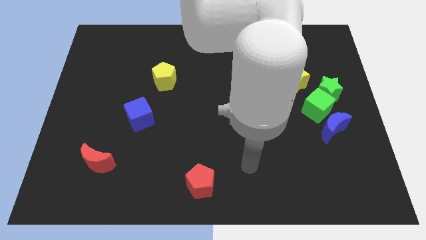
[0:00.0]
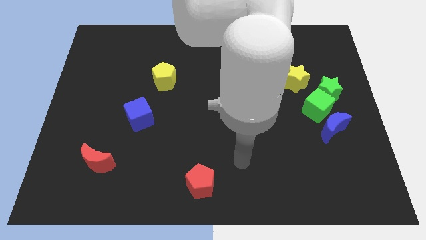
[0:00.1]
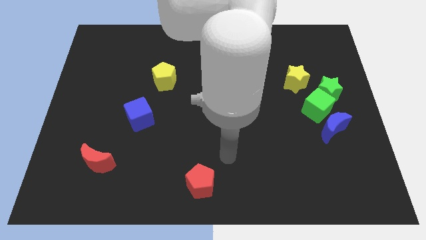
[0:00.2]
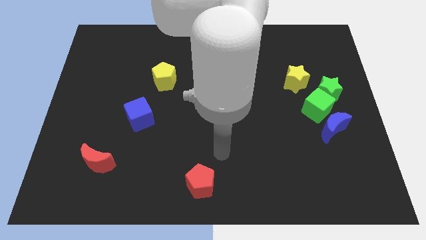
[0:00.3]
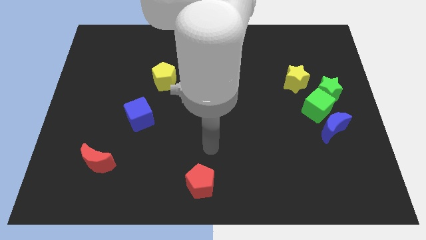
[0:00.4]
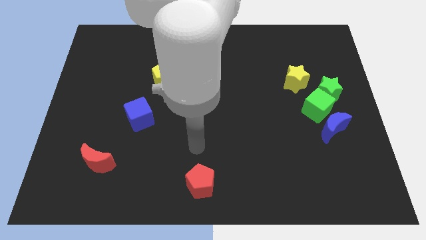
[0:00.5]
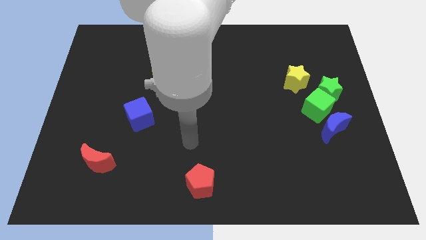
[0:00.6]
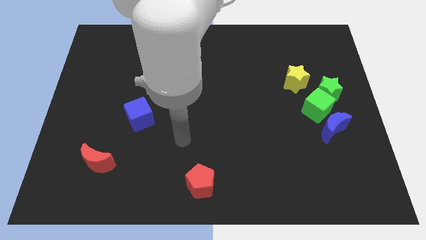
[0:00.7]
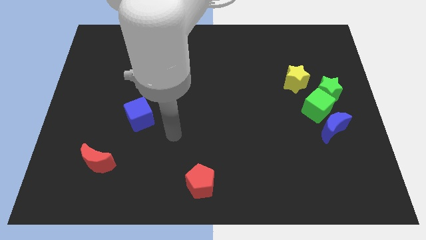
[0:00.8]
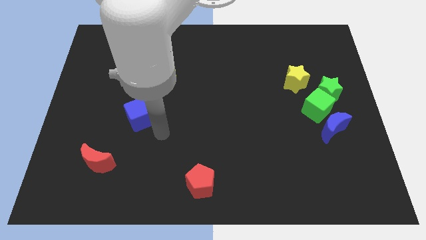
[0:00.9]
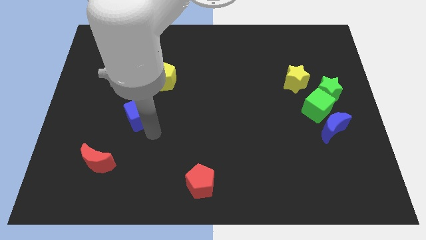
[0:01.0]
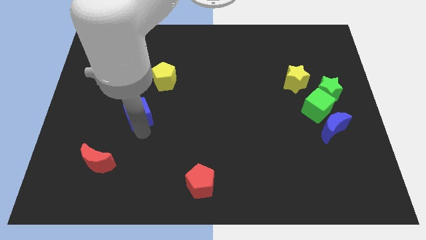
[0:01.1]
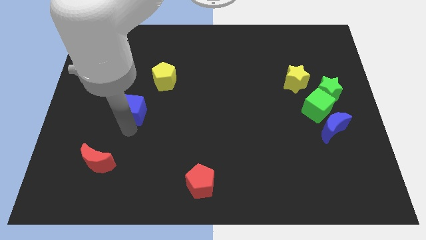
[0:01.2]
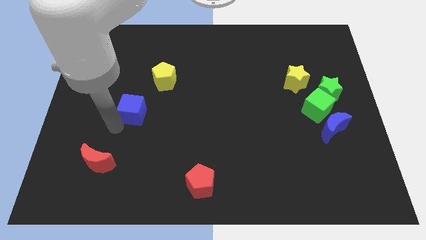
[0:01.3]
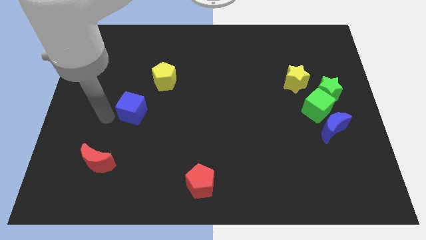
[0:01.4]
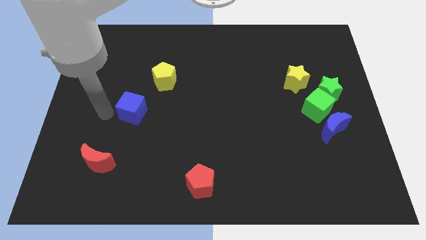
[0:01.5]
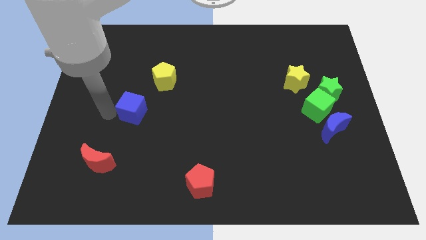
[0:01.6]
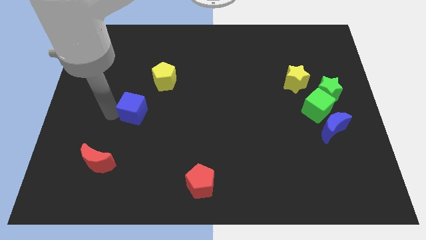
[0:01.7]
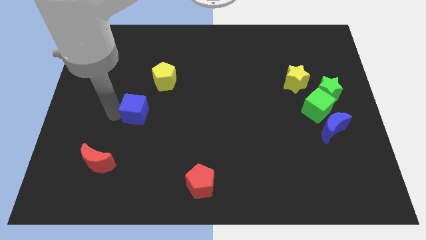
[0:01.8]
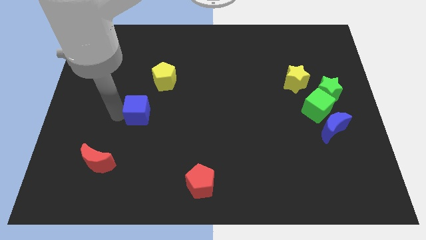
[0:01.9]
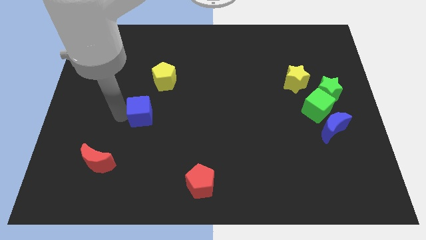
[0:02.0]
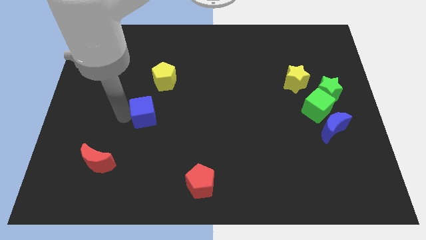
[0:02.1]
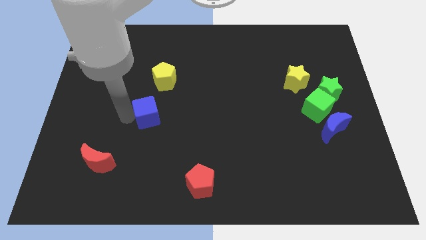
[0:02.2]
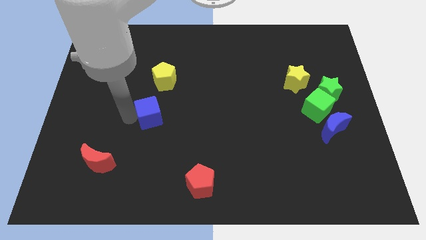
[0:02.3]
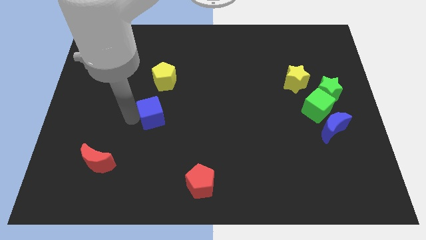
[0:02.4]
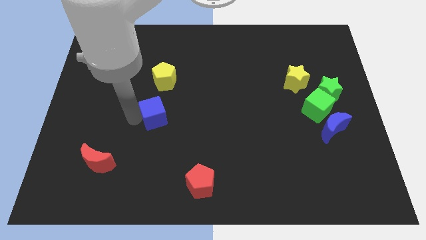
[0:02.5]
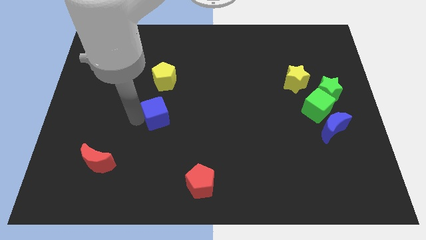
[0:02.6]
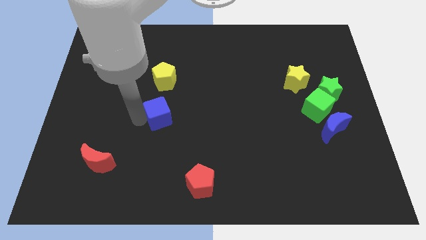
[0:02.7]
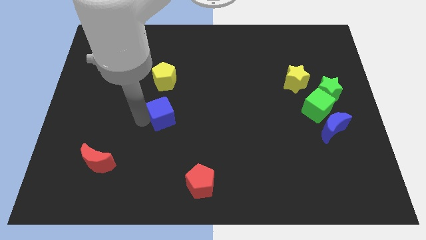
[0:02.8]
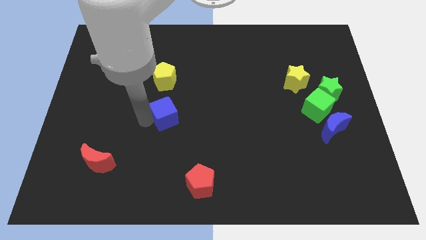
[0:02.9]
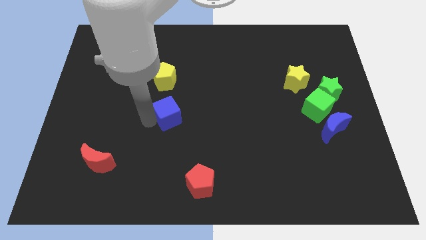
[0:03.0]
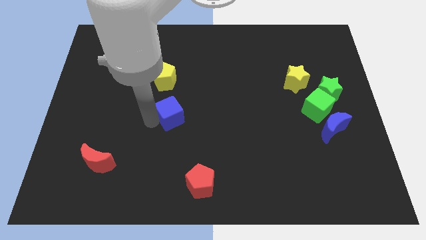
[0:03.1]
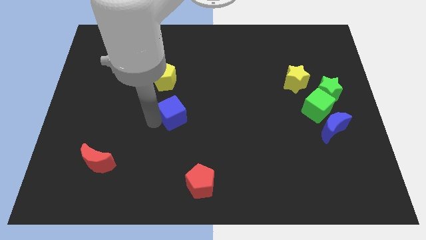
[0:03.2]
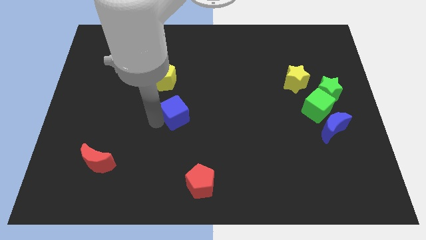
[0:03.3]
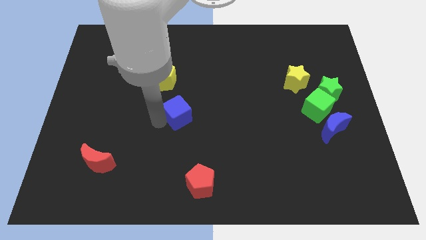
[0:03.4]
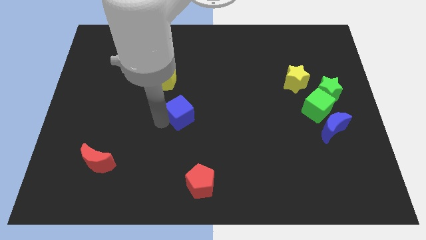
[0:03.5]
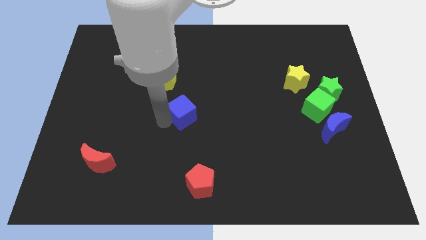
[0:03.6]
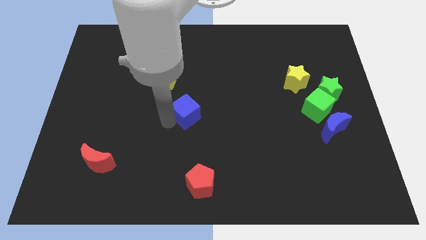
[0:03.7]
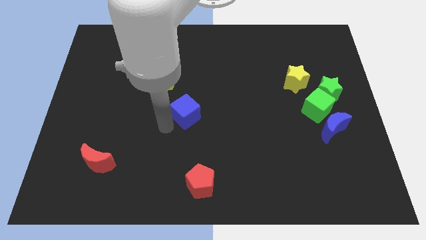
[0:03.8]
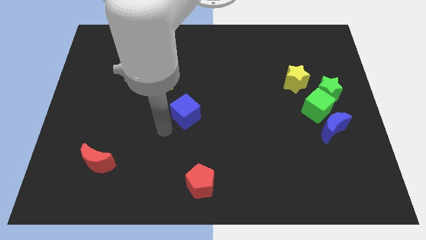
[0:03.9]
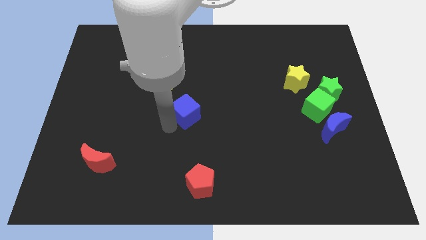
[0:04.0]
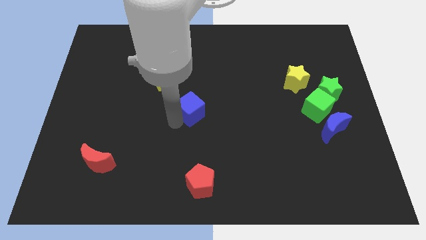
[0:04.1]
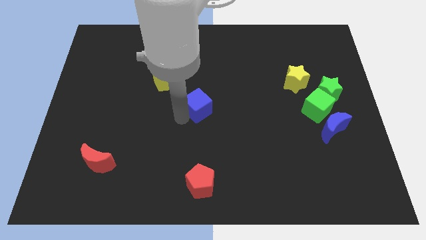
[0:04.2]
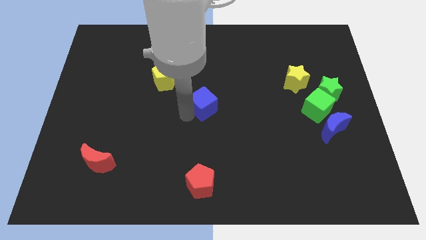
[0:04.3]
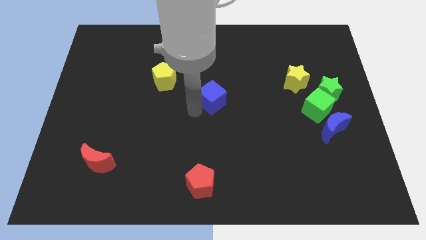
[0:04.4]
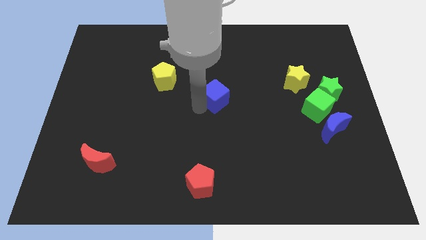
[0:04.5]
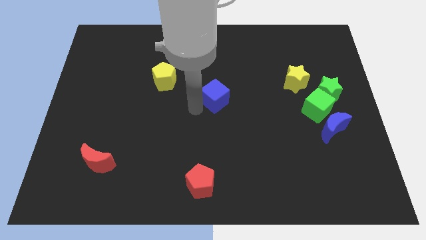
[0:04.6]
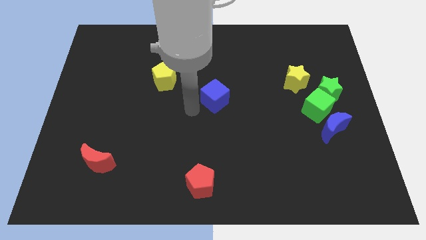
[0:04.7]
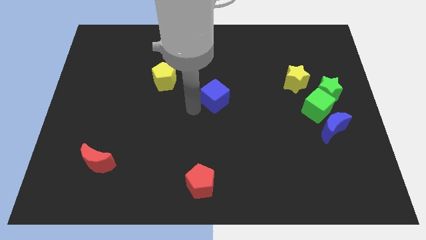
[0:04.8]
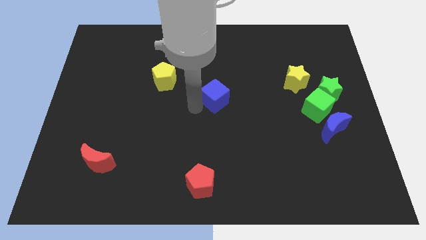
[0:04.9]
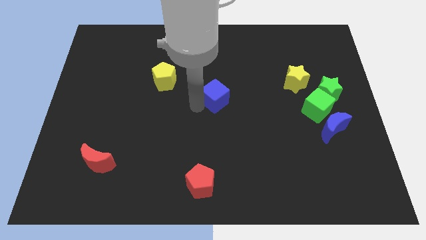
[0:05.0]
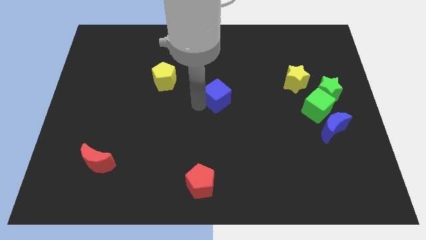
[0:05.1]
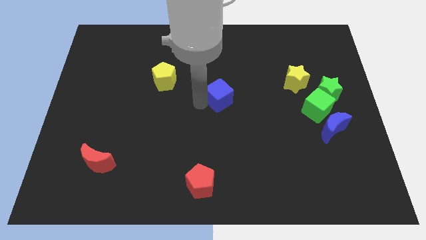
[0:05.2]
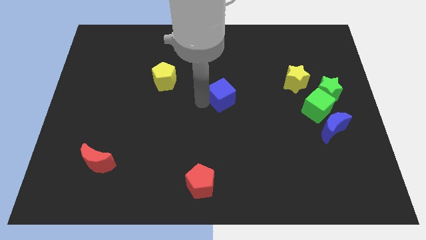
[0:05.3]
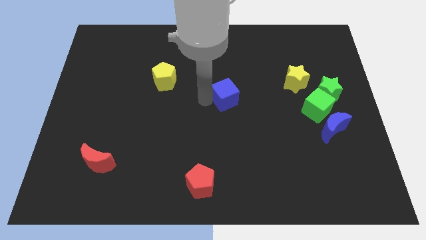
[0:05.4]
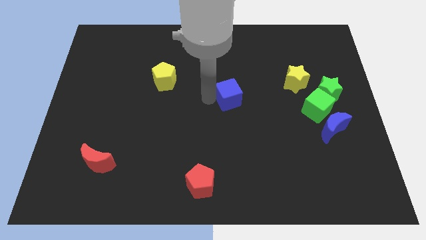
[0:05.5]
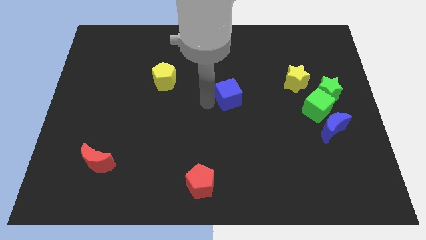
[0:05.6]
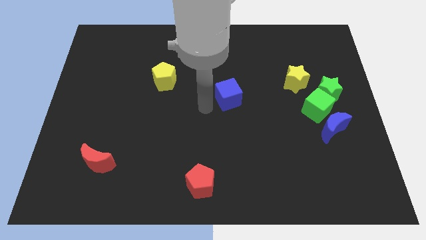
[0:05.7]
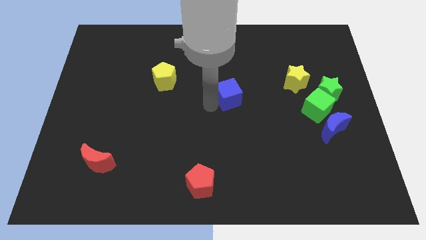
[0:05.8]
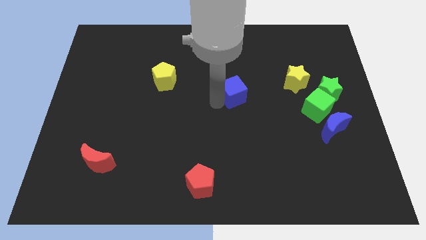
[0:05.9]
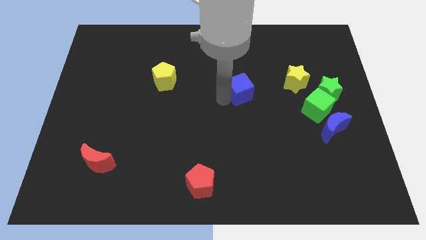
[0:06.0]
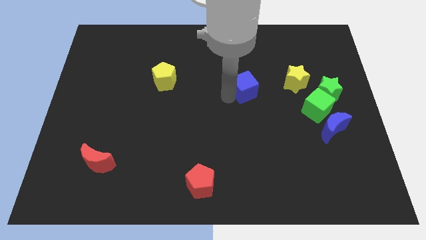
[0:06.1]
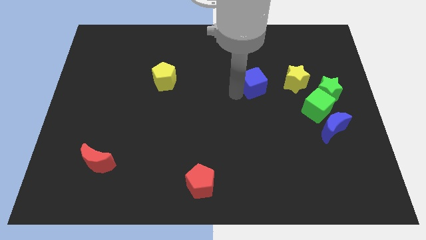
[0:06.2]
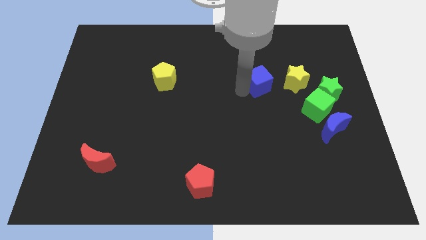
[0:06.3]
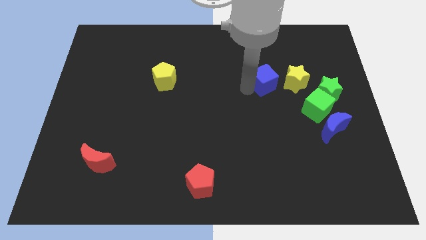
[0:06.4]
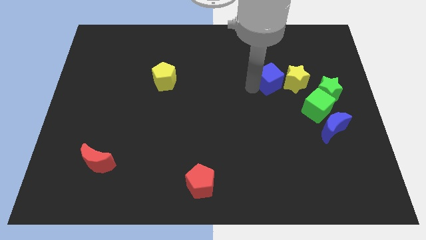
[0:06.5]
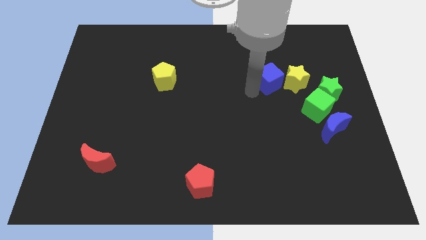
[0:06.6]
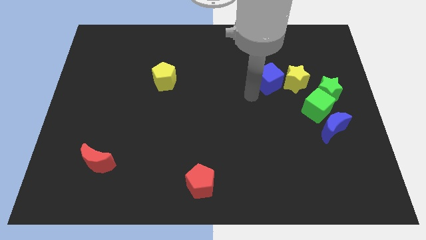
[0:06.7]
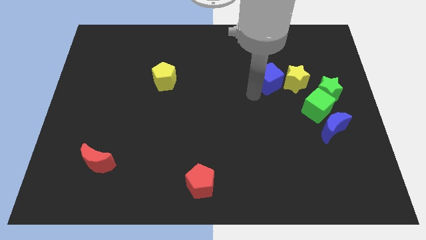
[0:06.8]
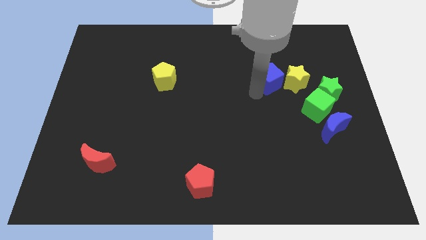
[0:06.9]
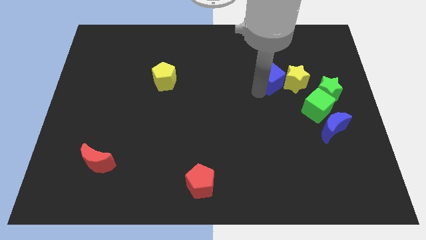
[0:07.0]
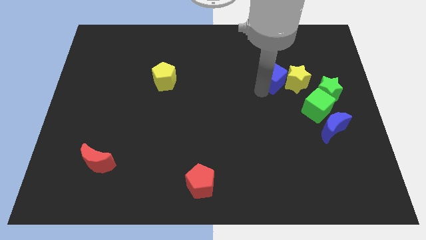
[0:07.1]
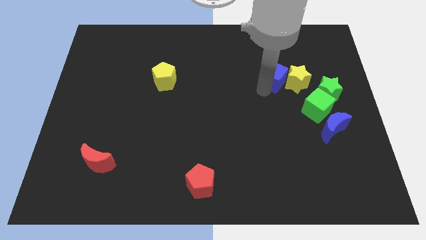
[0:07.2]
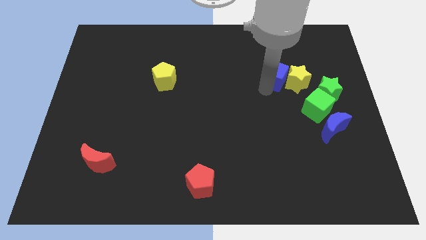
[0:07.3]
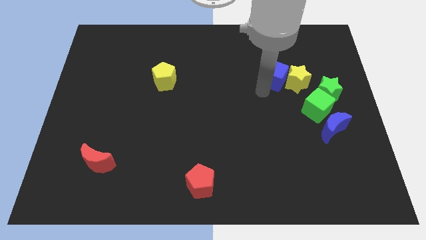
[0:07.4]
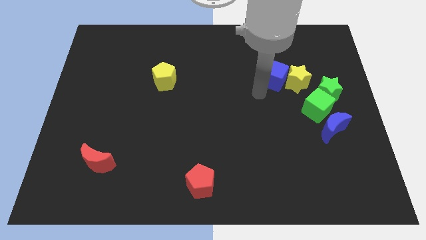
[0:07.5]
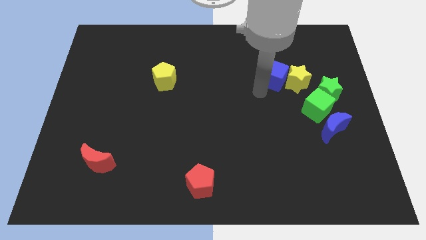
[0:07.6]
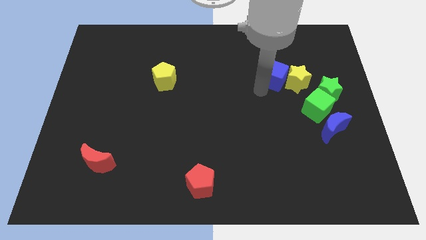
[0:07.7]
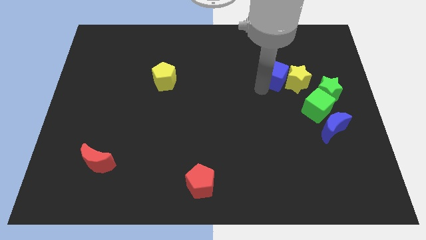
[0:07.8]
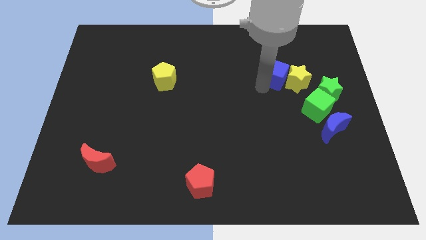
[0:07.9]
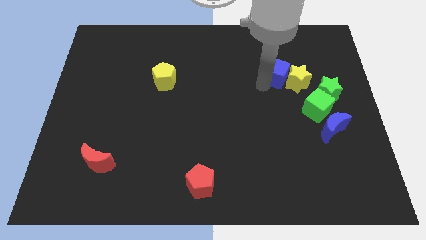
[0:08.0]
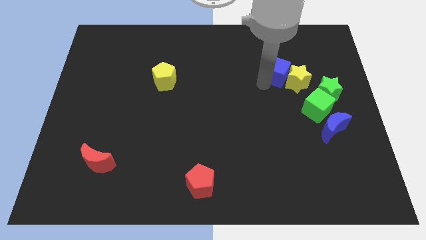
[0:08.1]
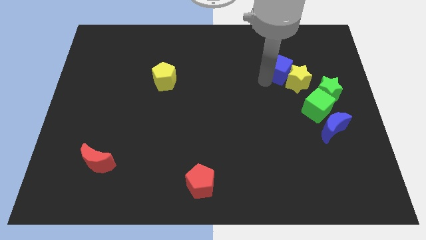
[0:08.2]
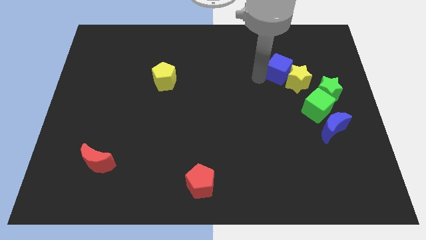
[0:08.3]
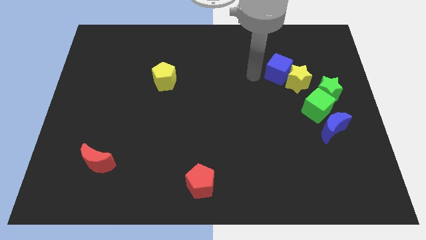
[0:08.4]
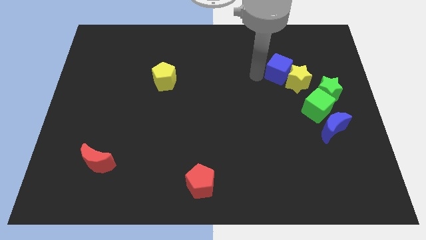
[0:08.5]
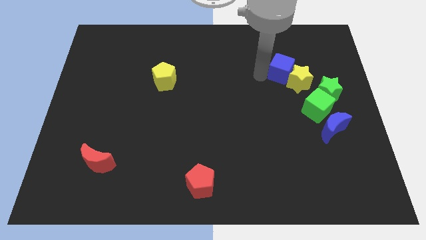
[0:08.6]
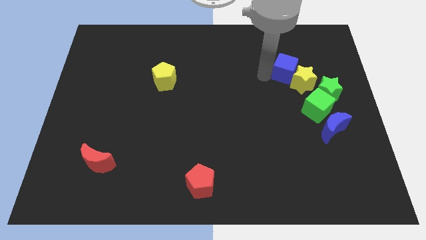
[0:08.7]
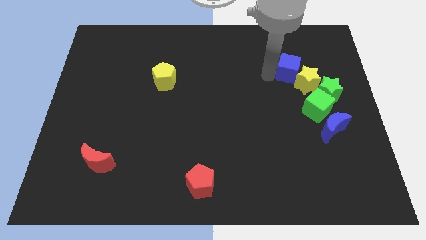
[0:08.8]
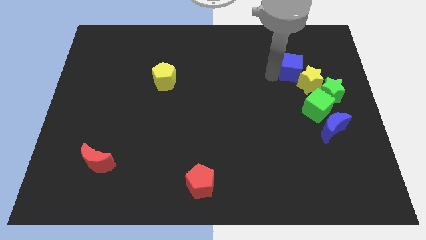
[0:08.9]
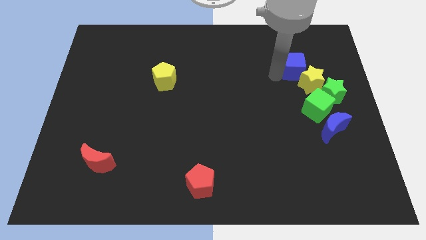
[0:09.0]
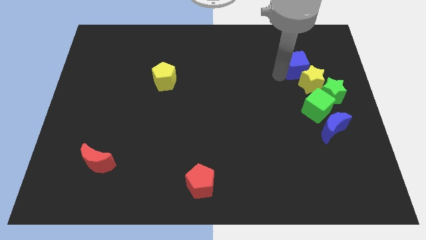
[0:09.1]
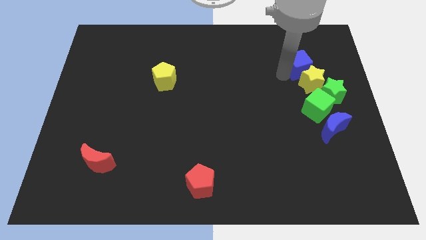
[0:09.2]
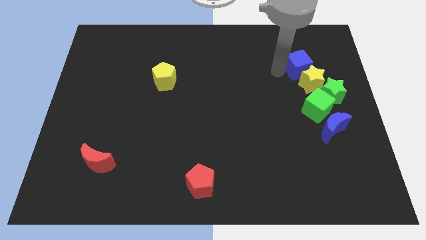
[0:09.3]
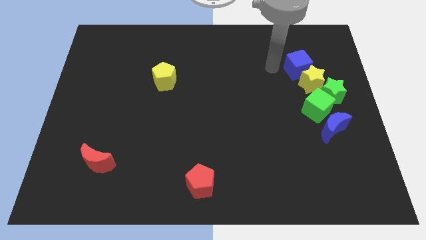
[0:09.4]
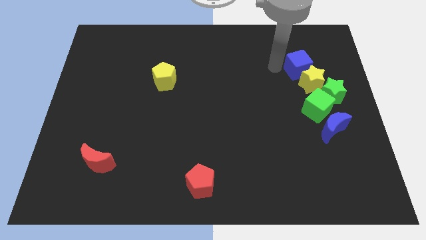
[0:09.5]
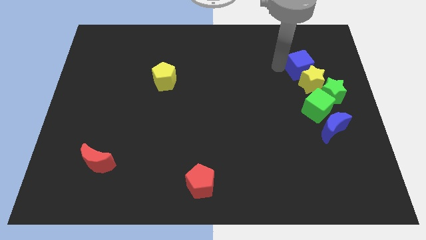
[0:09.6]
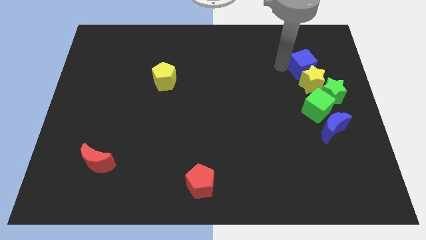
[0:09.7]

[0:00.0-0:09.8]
push the blue cube to the top right side of the yellow star
